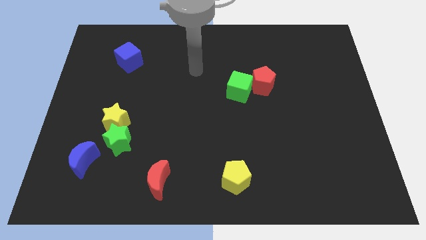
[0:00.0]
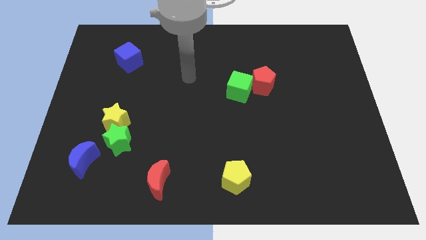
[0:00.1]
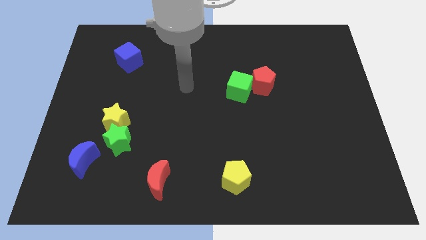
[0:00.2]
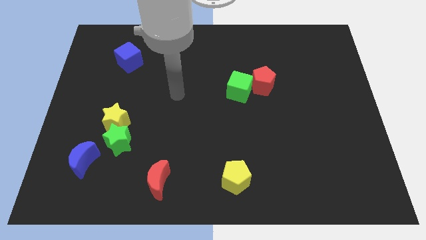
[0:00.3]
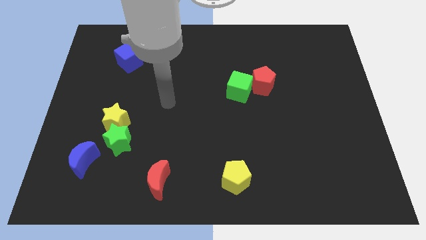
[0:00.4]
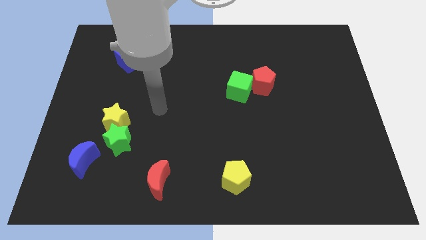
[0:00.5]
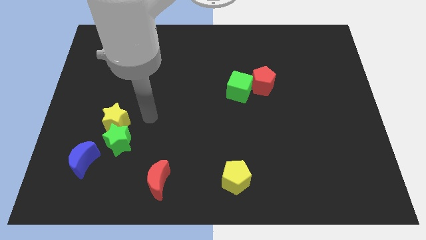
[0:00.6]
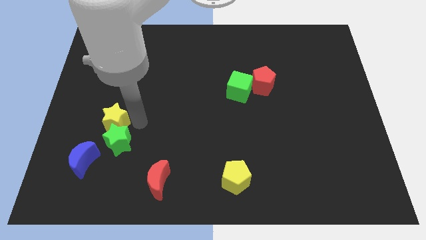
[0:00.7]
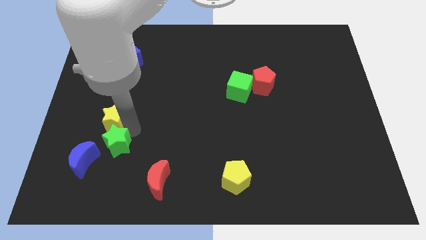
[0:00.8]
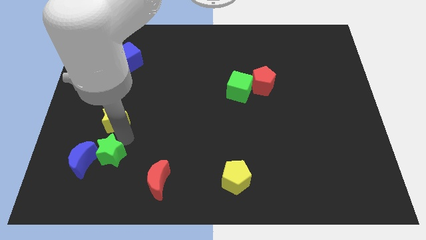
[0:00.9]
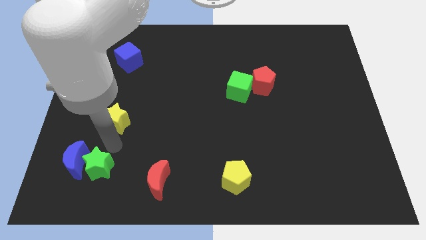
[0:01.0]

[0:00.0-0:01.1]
separate the yellow star from the green star

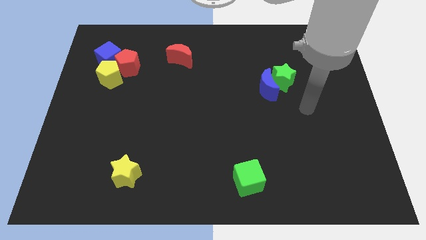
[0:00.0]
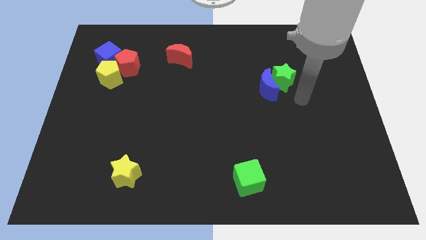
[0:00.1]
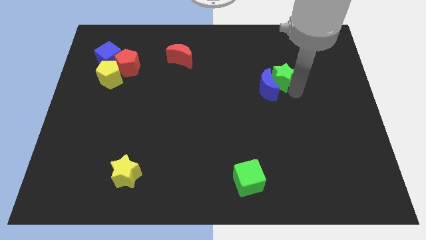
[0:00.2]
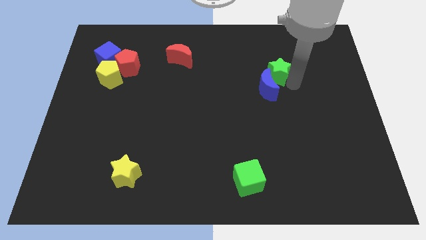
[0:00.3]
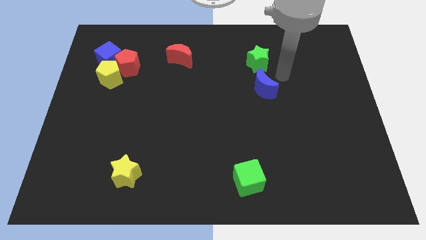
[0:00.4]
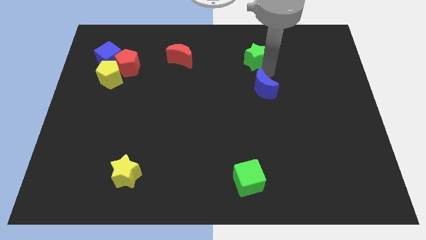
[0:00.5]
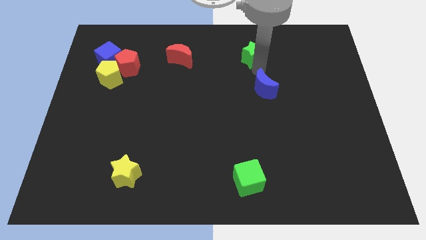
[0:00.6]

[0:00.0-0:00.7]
pull the blue moon apart from the green star

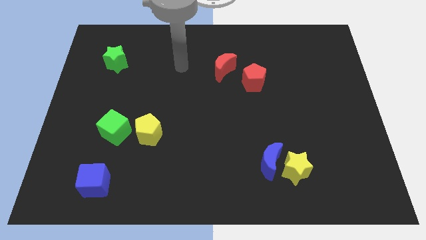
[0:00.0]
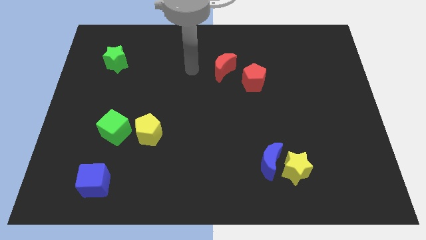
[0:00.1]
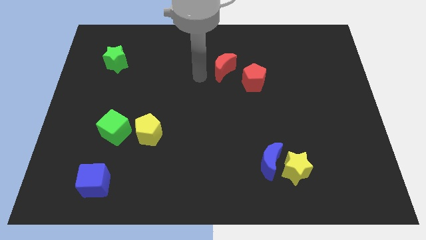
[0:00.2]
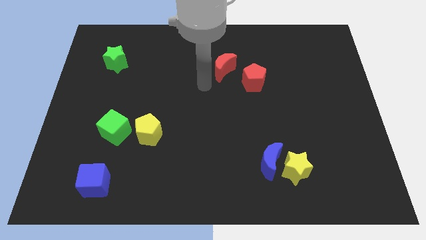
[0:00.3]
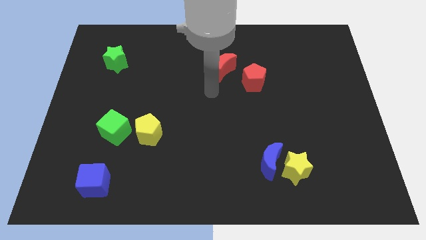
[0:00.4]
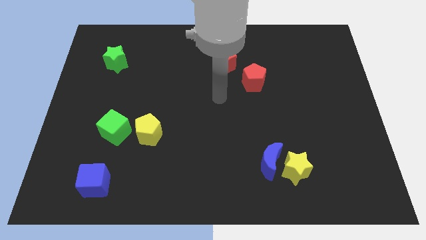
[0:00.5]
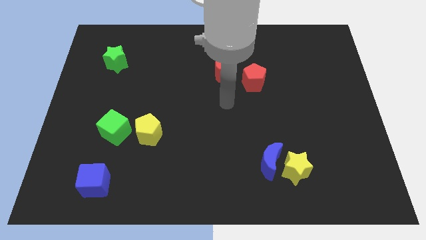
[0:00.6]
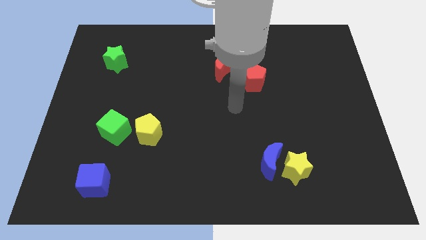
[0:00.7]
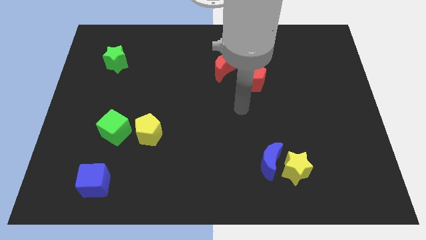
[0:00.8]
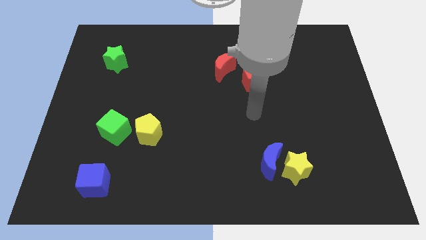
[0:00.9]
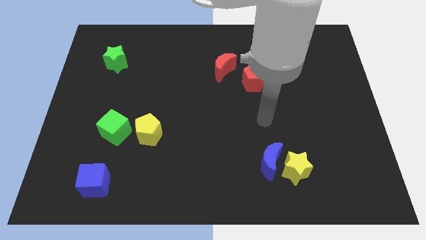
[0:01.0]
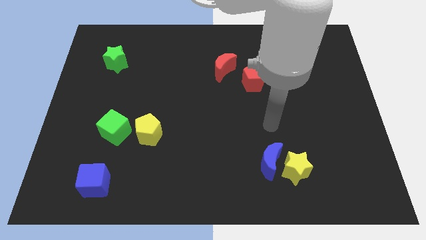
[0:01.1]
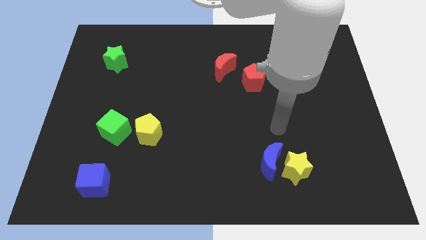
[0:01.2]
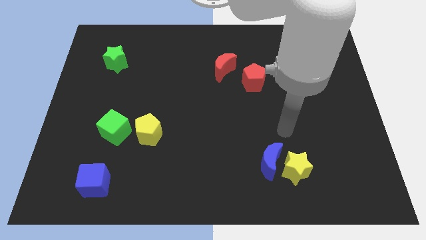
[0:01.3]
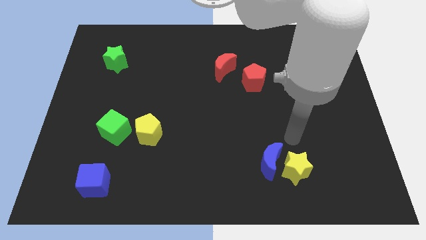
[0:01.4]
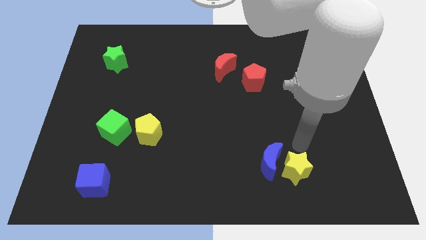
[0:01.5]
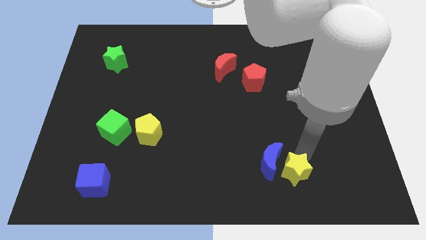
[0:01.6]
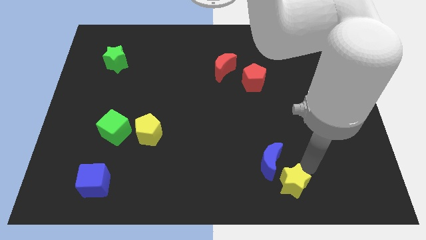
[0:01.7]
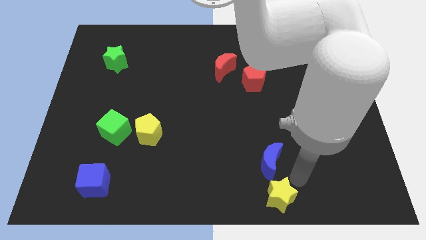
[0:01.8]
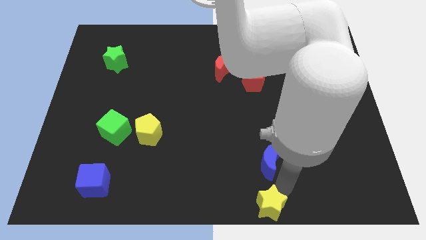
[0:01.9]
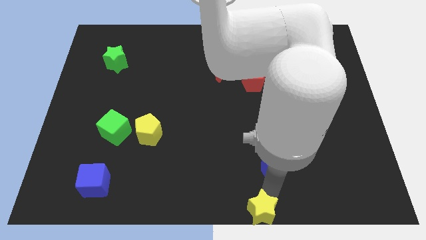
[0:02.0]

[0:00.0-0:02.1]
pull the blue moon apart from the yellow star

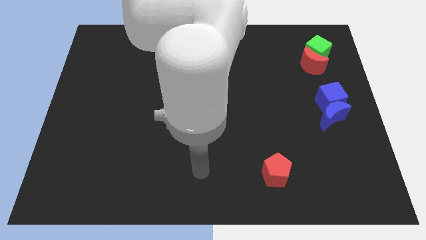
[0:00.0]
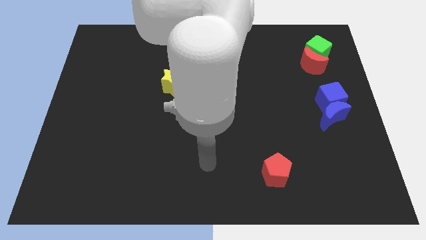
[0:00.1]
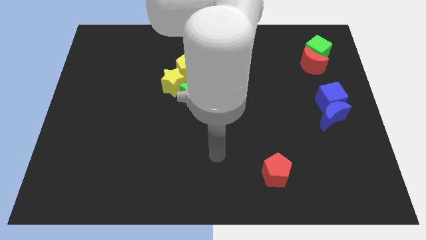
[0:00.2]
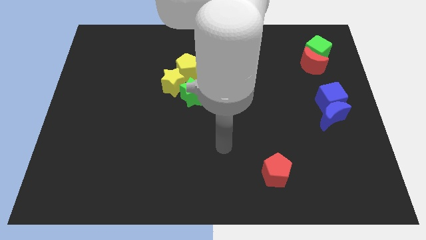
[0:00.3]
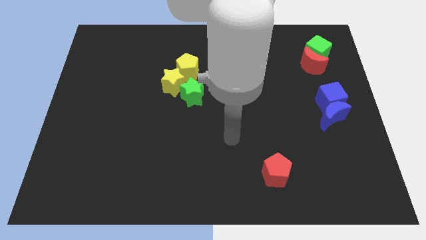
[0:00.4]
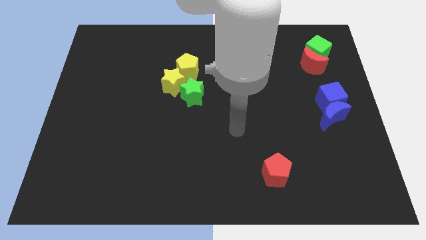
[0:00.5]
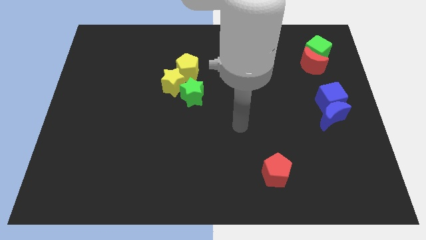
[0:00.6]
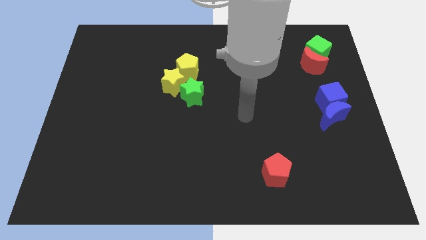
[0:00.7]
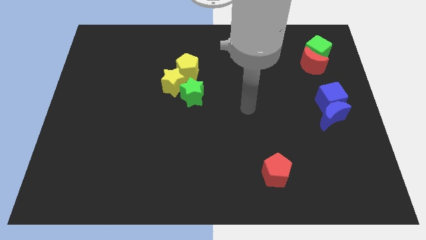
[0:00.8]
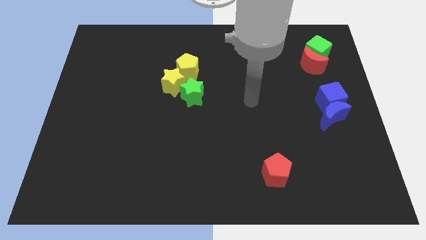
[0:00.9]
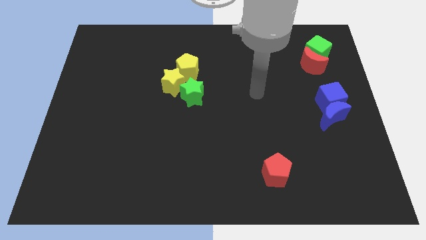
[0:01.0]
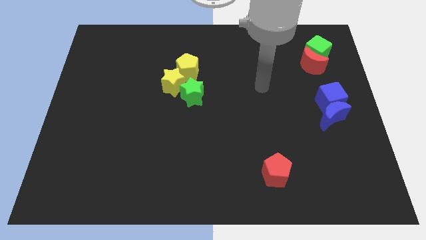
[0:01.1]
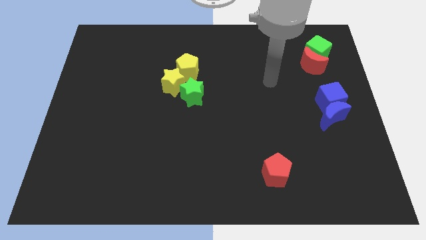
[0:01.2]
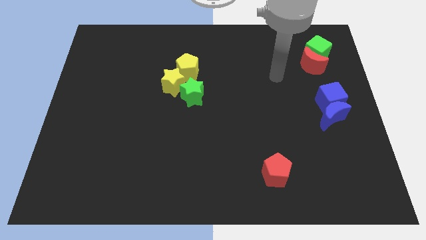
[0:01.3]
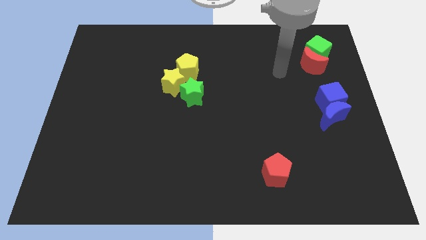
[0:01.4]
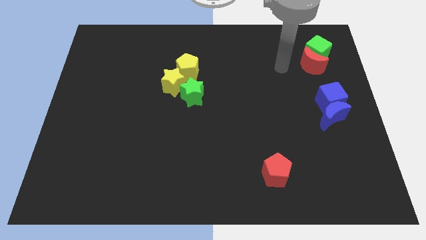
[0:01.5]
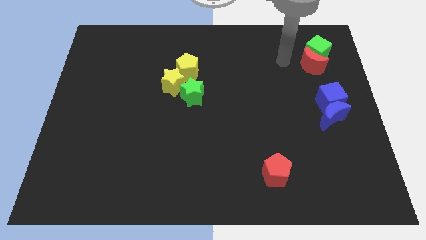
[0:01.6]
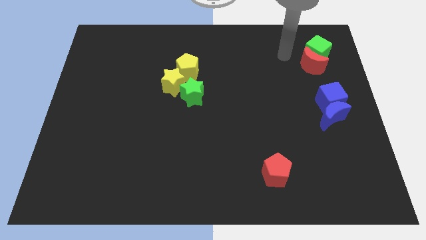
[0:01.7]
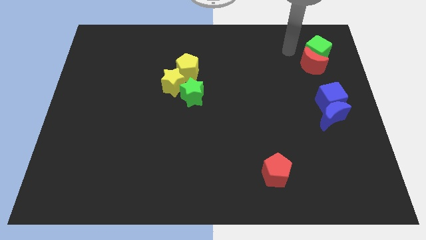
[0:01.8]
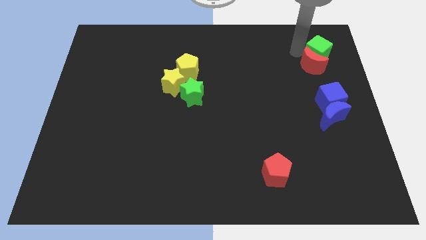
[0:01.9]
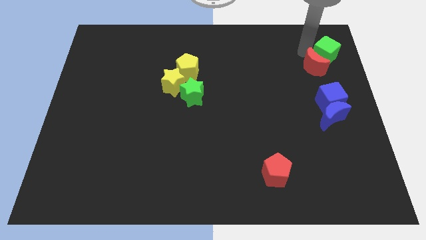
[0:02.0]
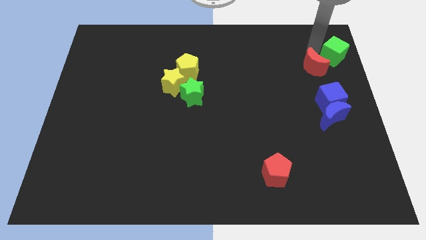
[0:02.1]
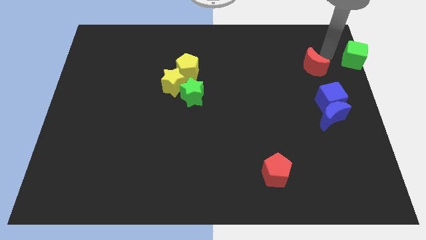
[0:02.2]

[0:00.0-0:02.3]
pull the red moon apart from the green cube

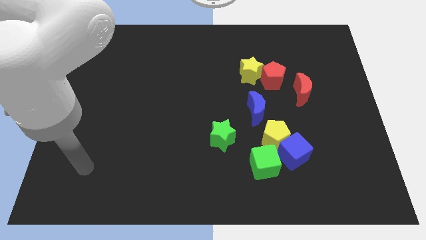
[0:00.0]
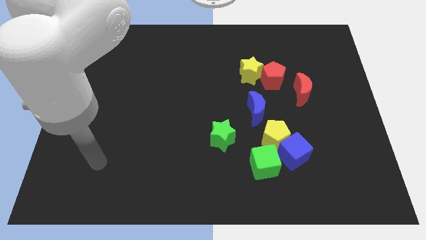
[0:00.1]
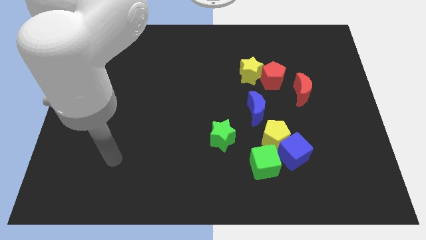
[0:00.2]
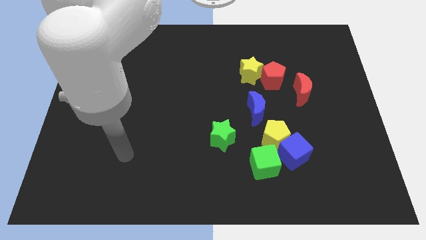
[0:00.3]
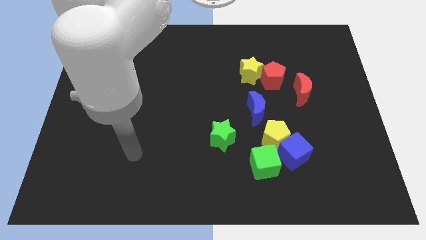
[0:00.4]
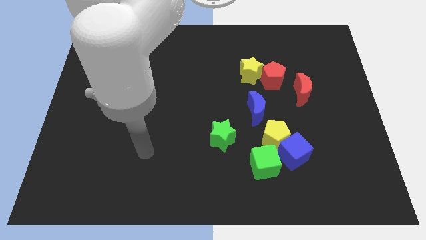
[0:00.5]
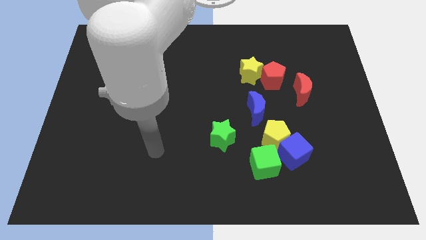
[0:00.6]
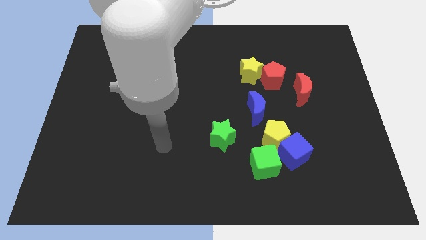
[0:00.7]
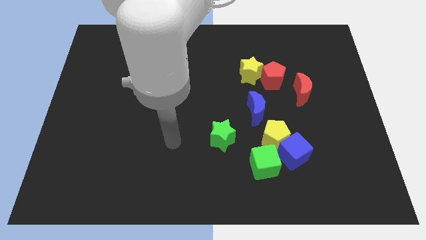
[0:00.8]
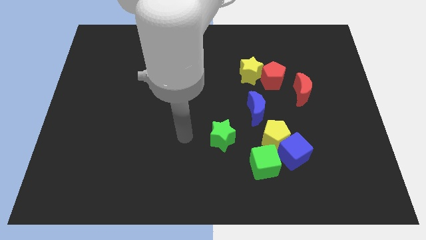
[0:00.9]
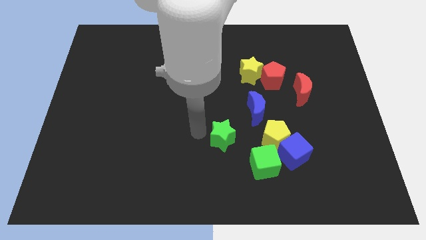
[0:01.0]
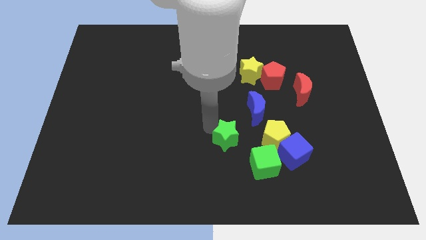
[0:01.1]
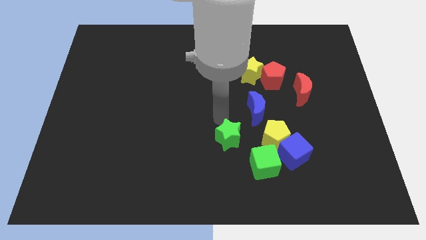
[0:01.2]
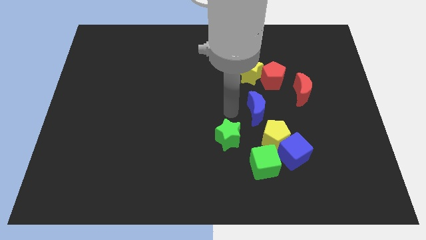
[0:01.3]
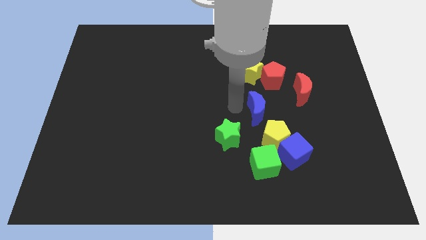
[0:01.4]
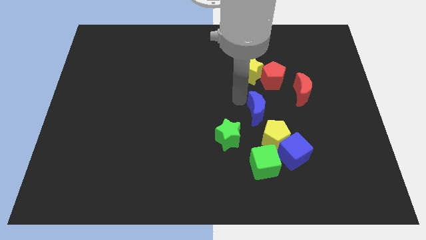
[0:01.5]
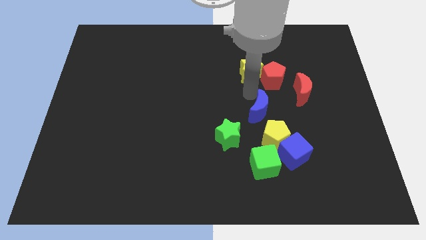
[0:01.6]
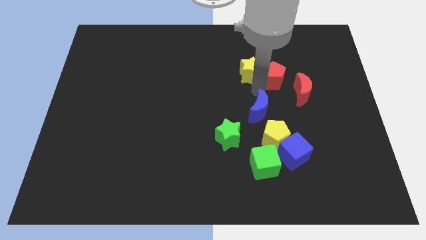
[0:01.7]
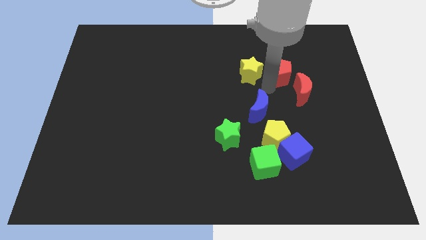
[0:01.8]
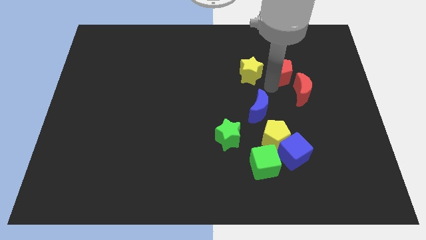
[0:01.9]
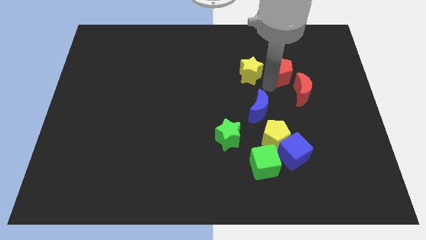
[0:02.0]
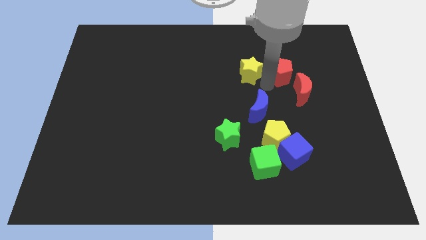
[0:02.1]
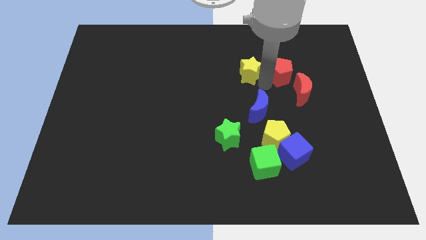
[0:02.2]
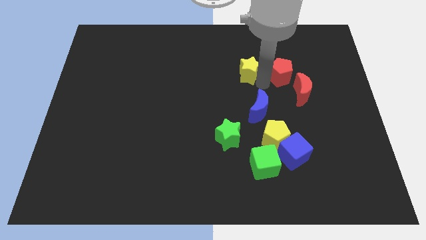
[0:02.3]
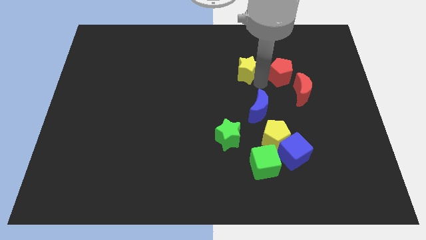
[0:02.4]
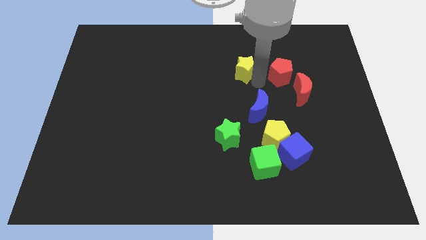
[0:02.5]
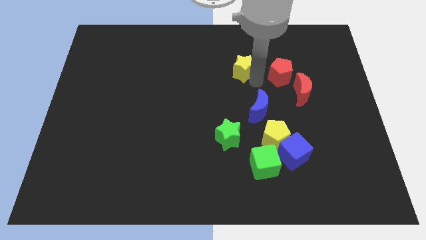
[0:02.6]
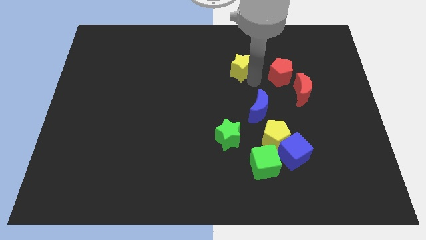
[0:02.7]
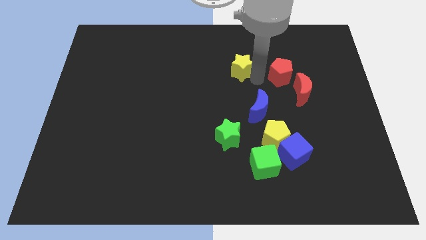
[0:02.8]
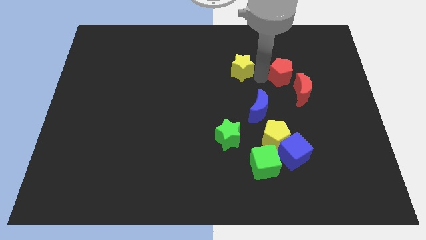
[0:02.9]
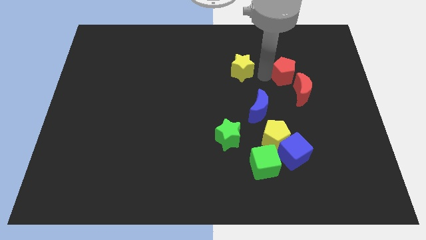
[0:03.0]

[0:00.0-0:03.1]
move the yellow star away from the red pentagon
